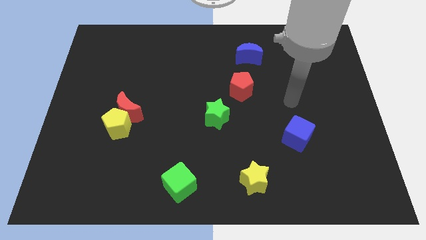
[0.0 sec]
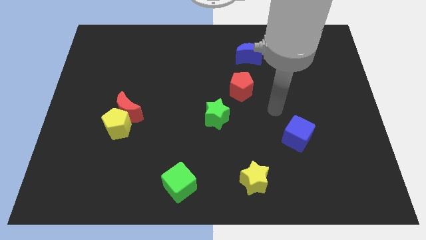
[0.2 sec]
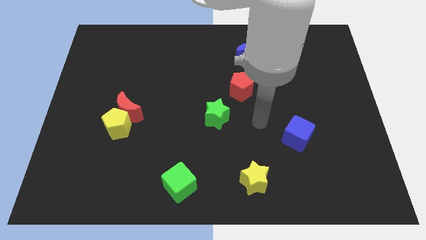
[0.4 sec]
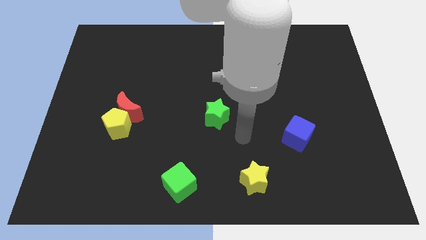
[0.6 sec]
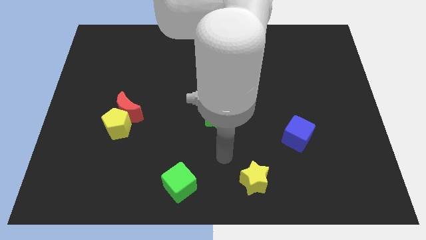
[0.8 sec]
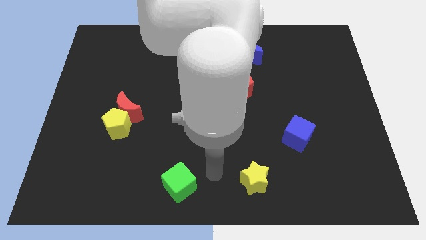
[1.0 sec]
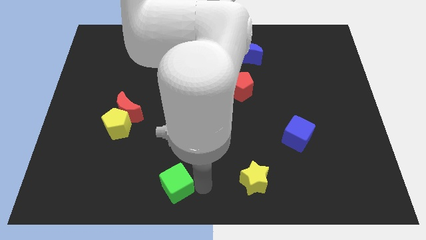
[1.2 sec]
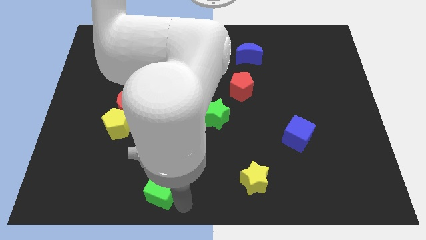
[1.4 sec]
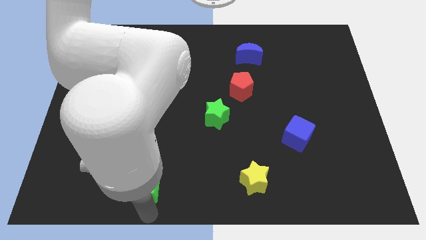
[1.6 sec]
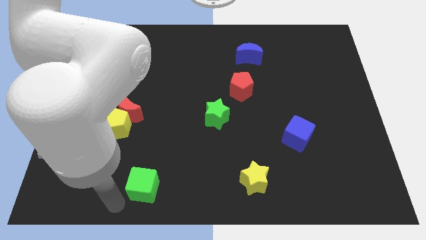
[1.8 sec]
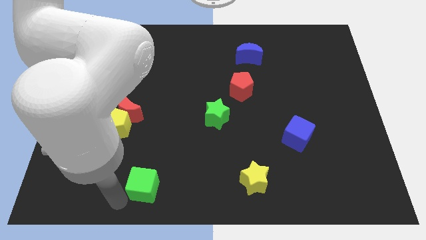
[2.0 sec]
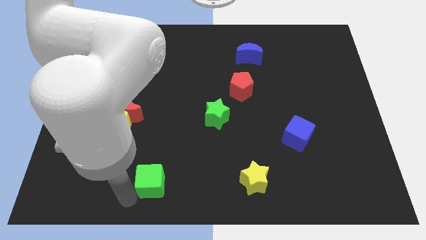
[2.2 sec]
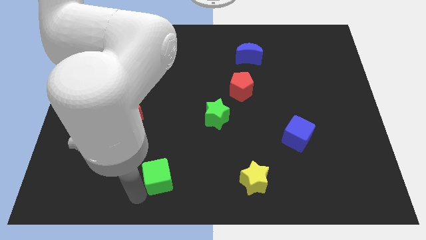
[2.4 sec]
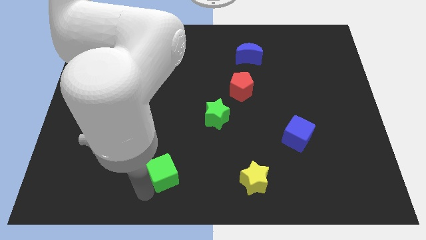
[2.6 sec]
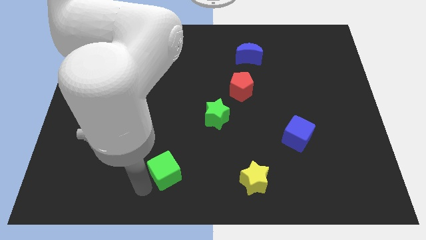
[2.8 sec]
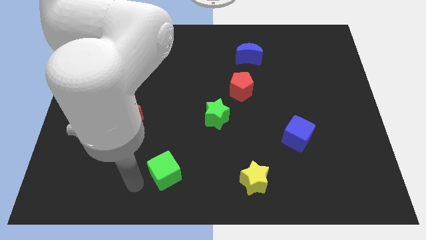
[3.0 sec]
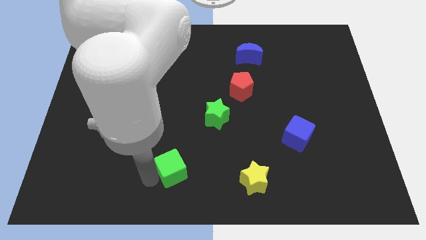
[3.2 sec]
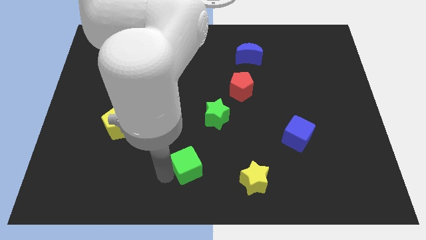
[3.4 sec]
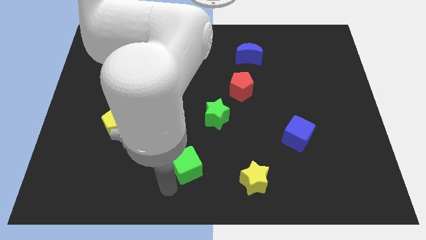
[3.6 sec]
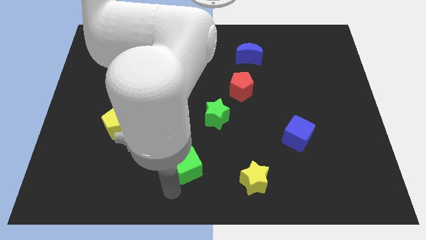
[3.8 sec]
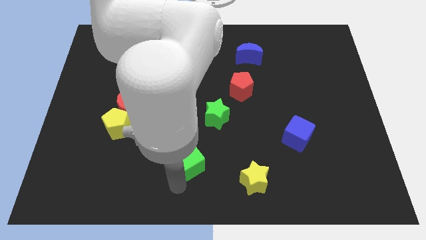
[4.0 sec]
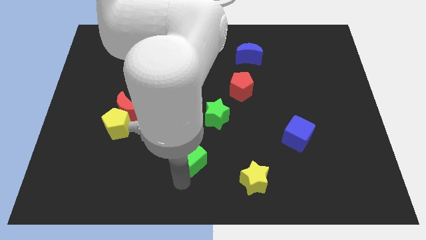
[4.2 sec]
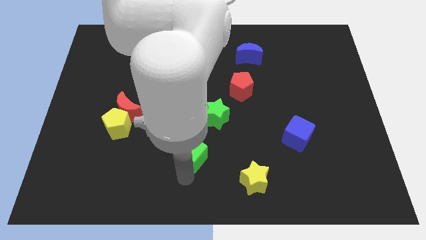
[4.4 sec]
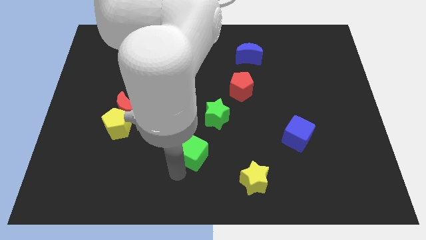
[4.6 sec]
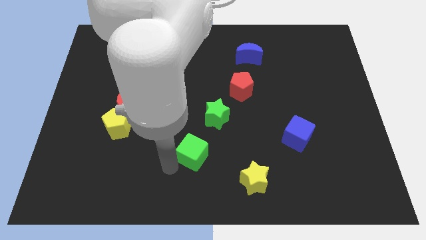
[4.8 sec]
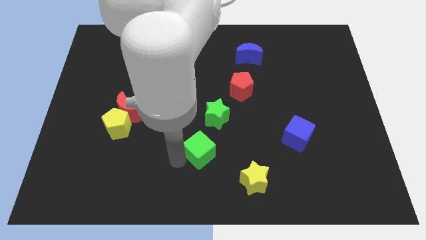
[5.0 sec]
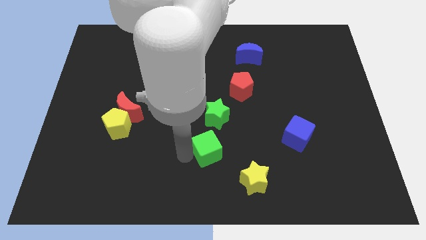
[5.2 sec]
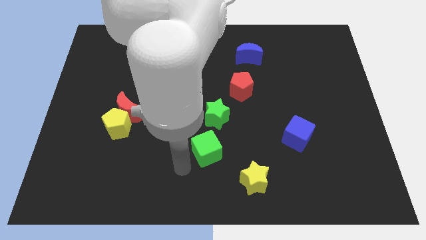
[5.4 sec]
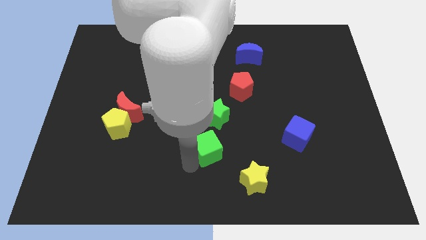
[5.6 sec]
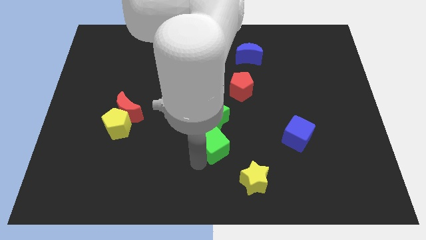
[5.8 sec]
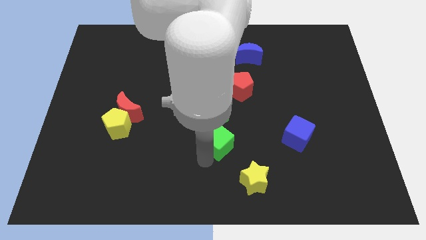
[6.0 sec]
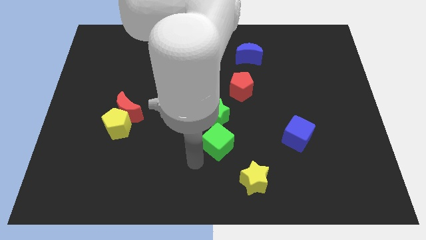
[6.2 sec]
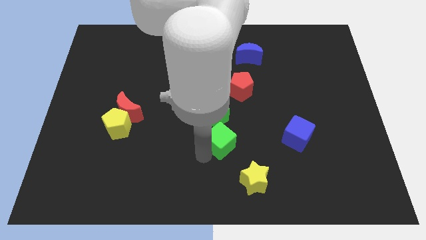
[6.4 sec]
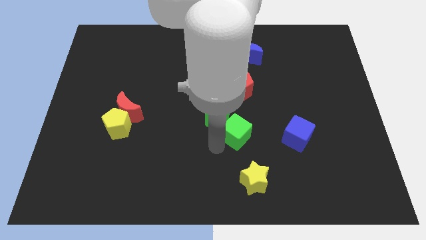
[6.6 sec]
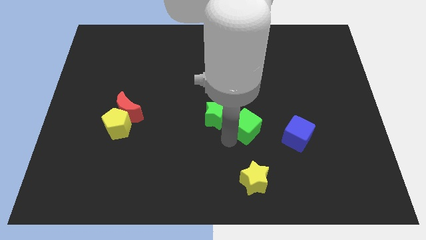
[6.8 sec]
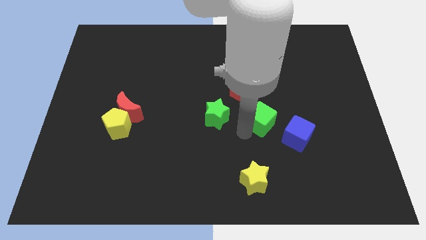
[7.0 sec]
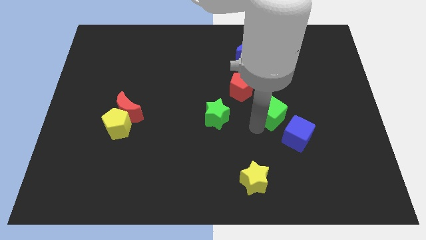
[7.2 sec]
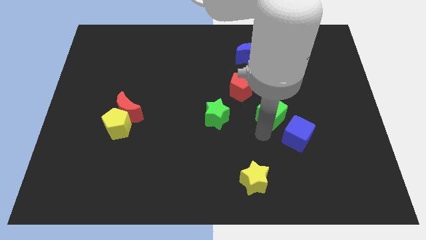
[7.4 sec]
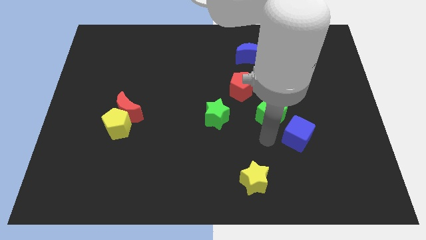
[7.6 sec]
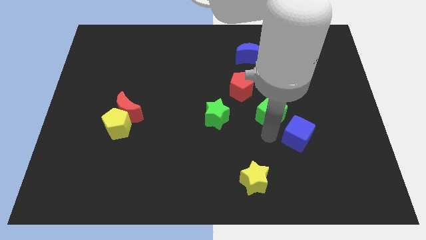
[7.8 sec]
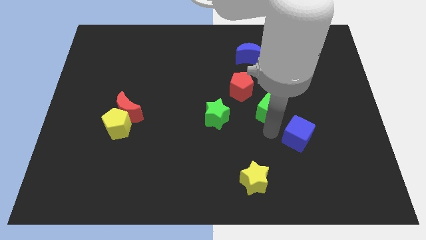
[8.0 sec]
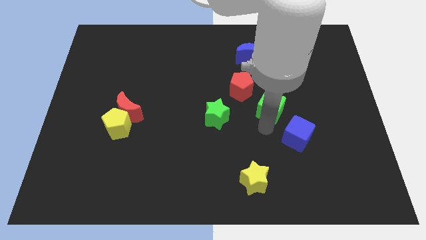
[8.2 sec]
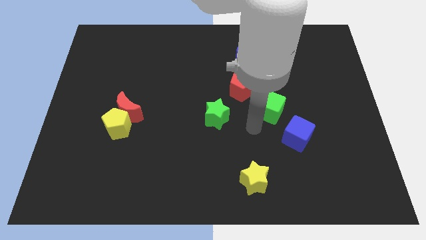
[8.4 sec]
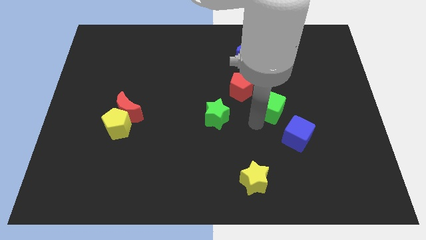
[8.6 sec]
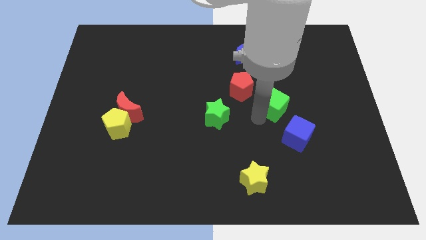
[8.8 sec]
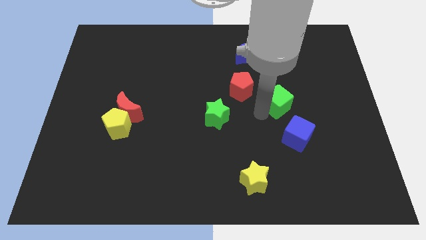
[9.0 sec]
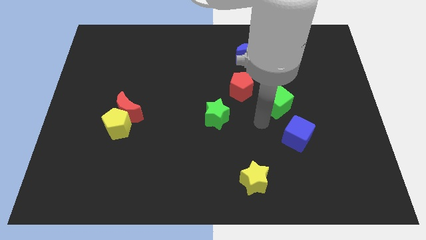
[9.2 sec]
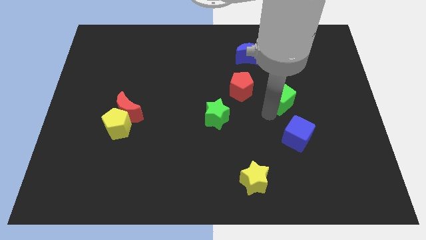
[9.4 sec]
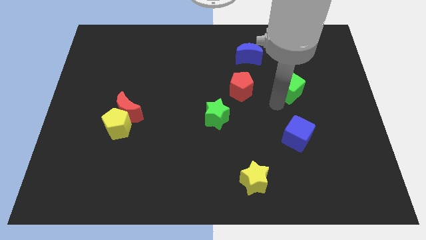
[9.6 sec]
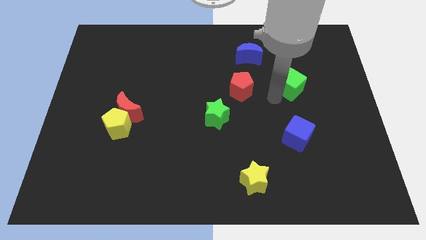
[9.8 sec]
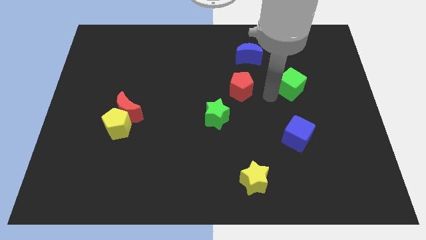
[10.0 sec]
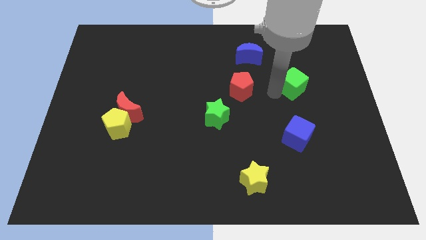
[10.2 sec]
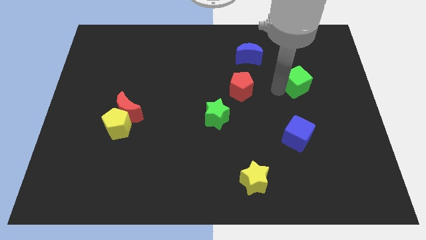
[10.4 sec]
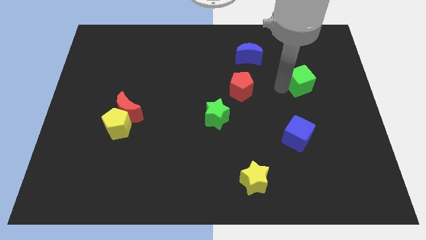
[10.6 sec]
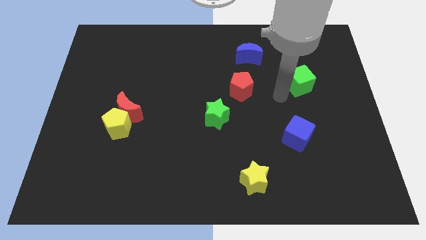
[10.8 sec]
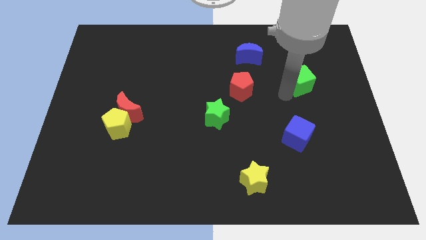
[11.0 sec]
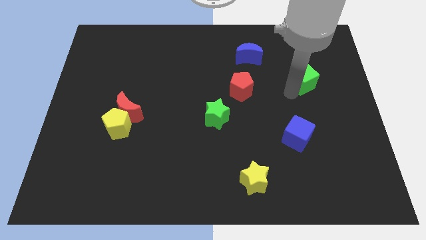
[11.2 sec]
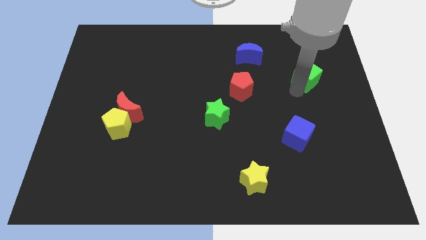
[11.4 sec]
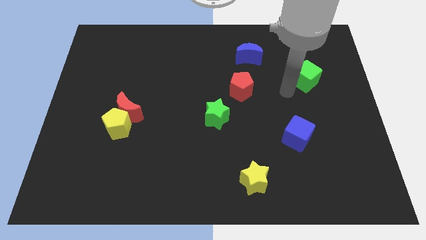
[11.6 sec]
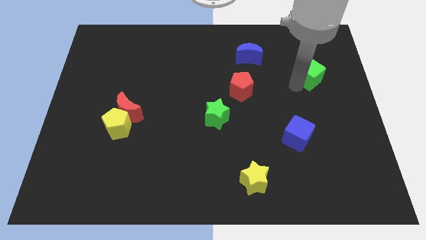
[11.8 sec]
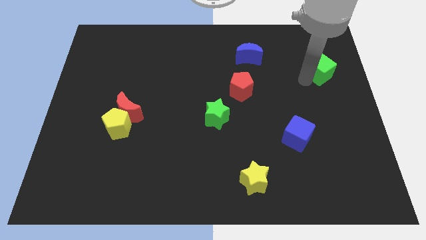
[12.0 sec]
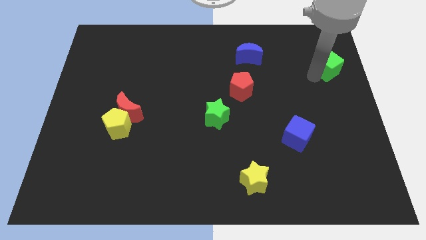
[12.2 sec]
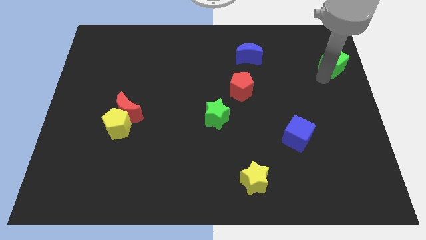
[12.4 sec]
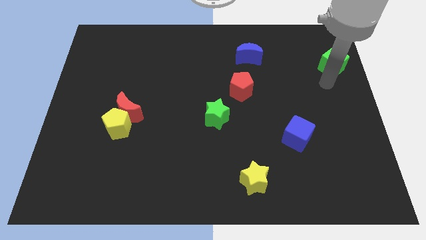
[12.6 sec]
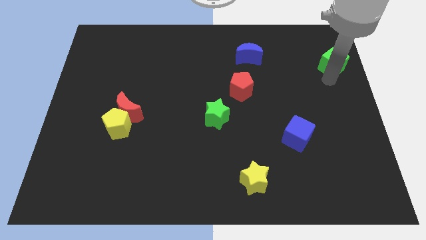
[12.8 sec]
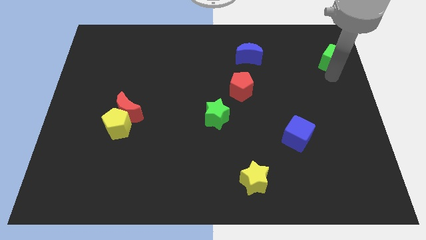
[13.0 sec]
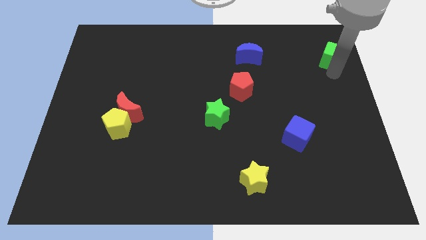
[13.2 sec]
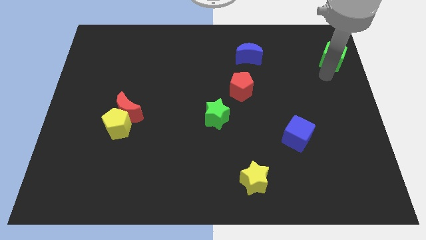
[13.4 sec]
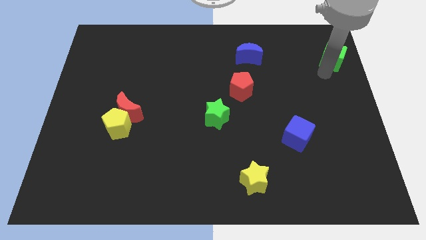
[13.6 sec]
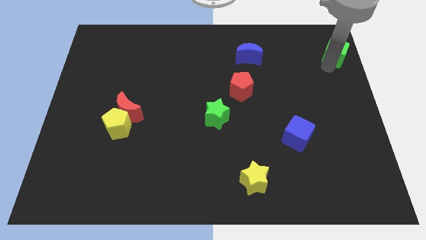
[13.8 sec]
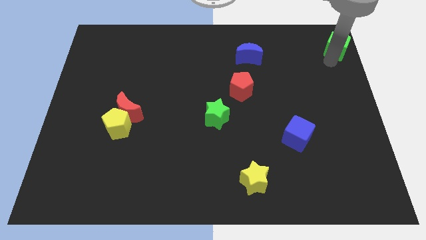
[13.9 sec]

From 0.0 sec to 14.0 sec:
push the green cube to the top right corner
